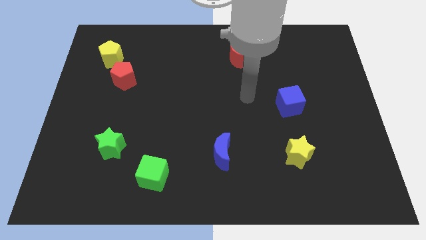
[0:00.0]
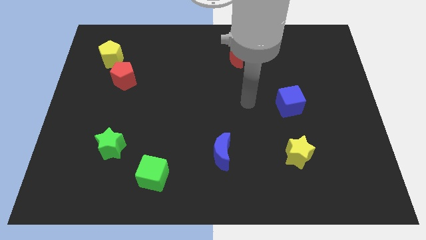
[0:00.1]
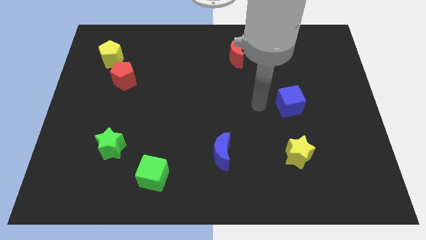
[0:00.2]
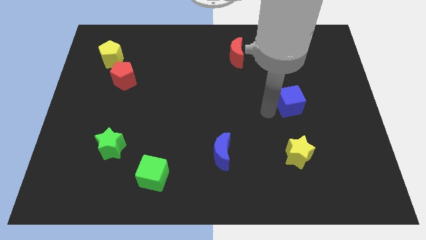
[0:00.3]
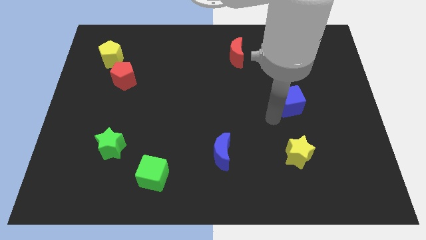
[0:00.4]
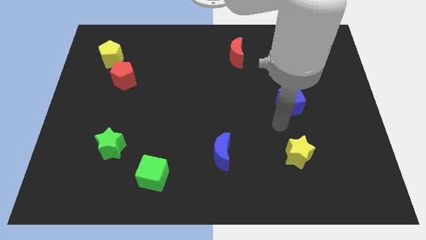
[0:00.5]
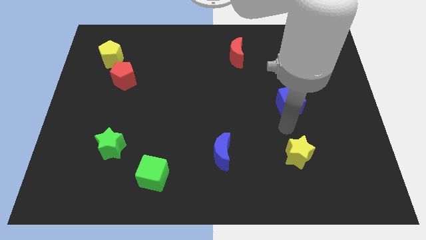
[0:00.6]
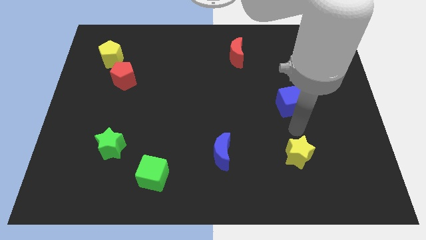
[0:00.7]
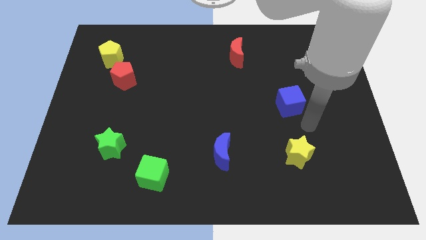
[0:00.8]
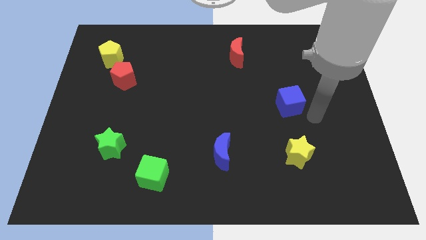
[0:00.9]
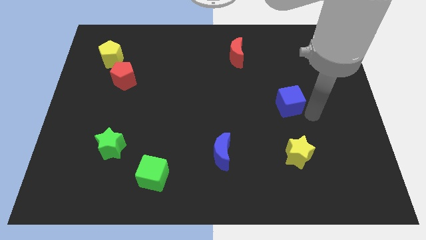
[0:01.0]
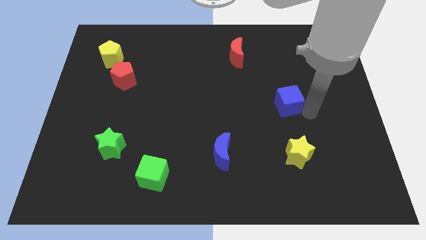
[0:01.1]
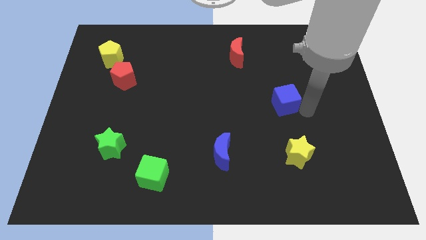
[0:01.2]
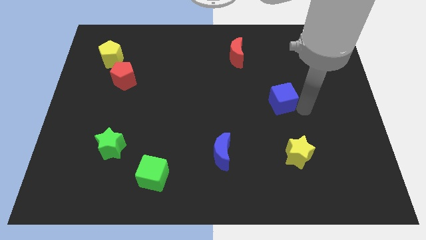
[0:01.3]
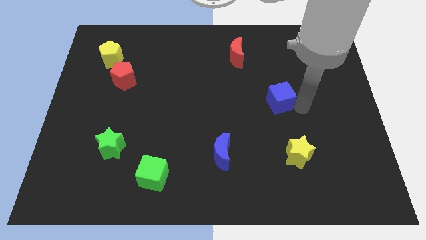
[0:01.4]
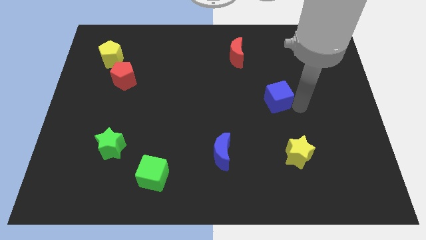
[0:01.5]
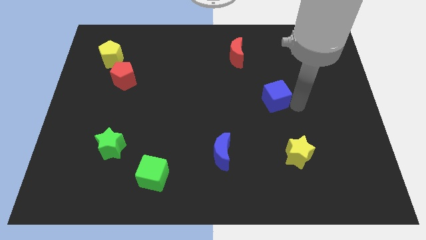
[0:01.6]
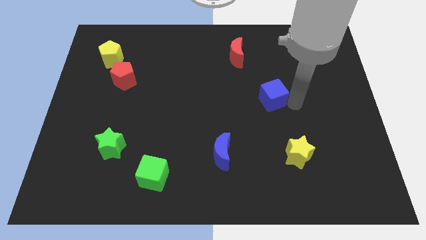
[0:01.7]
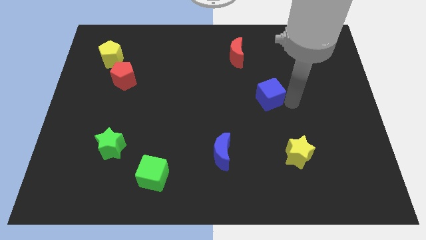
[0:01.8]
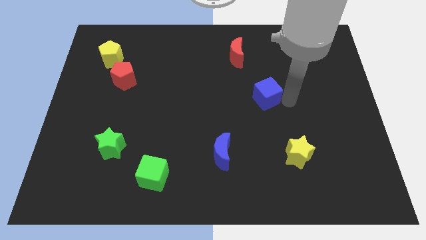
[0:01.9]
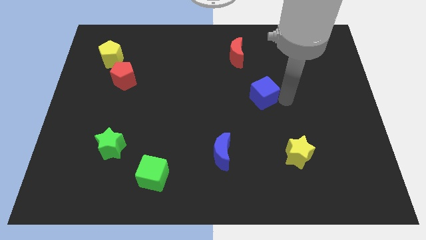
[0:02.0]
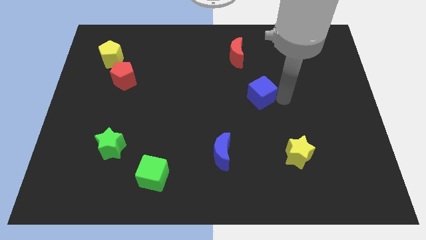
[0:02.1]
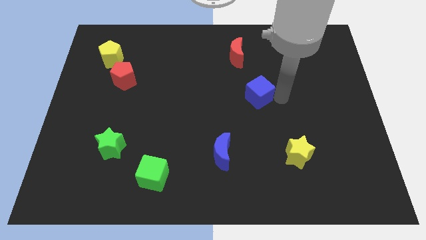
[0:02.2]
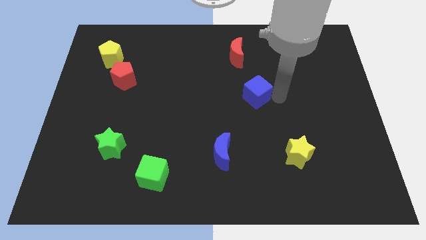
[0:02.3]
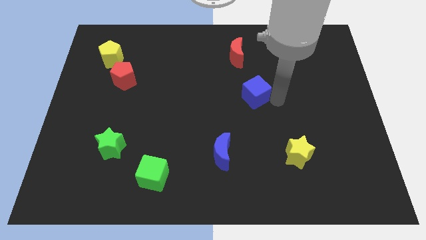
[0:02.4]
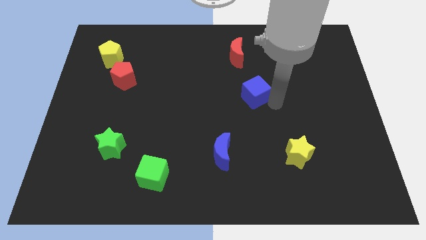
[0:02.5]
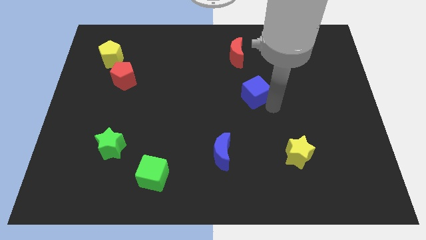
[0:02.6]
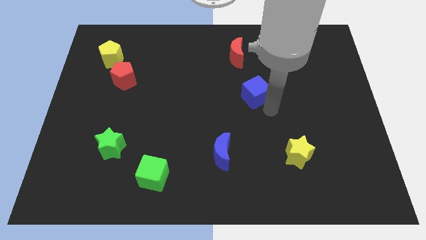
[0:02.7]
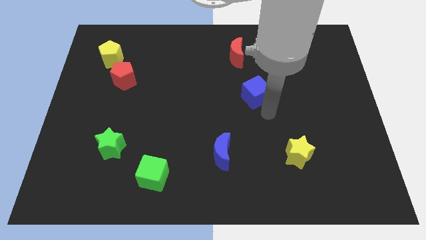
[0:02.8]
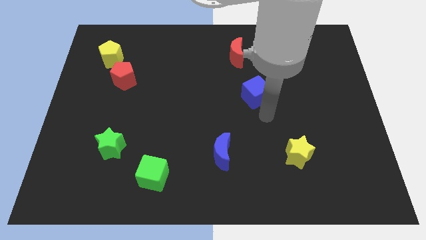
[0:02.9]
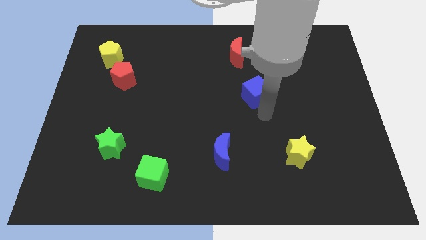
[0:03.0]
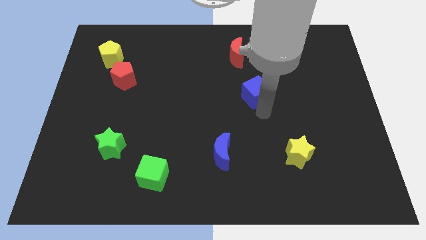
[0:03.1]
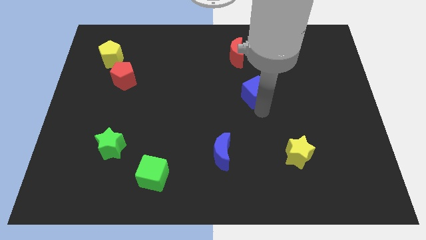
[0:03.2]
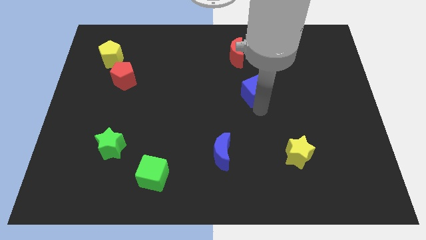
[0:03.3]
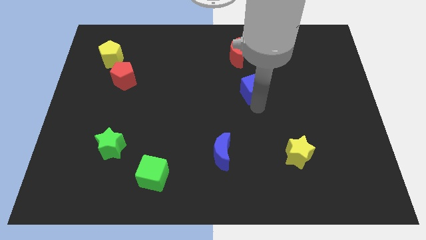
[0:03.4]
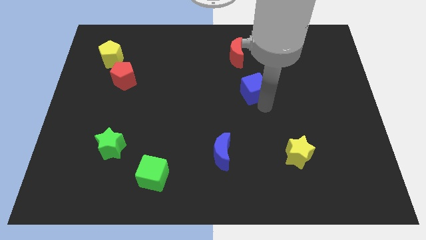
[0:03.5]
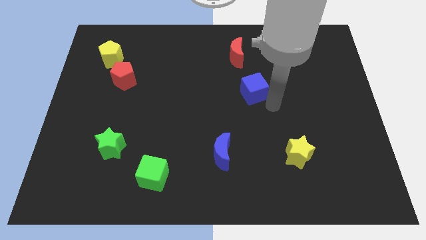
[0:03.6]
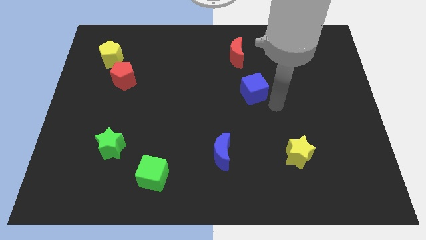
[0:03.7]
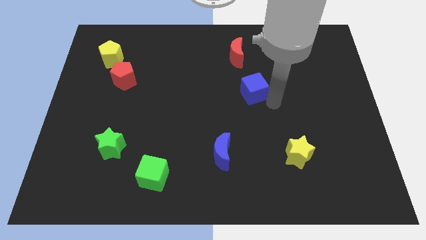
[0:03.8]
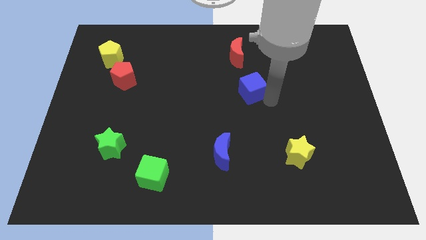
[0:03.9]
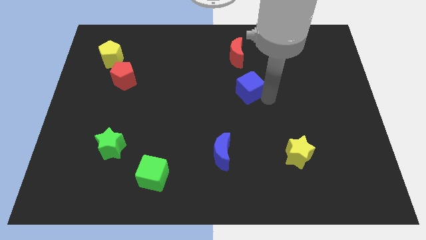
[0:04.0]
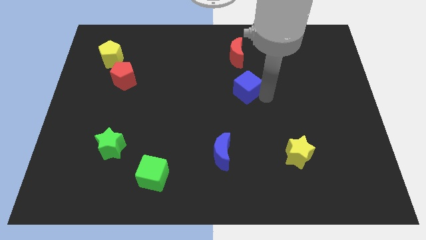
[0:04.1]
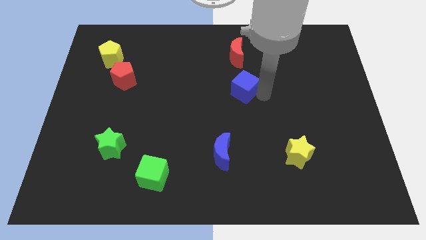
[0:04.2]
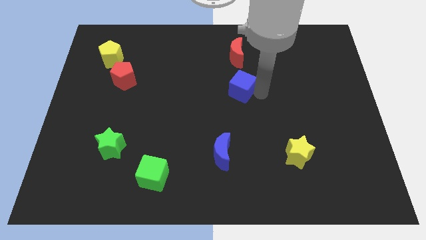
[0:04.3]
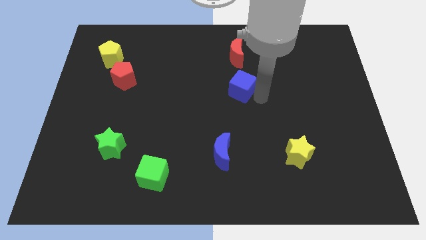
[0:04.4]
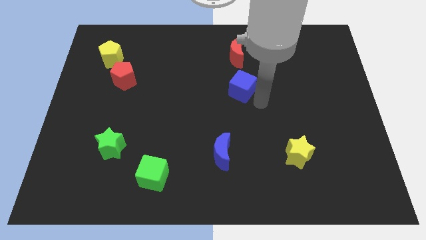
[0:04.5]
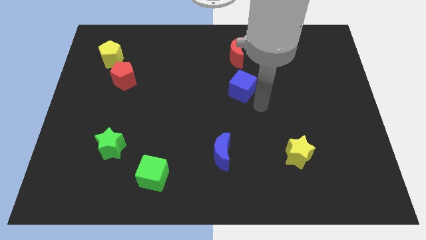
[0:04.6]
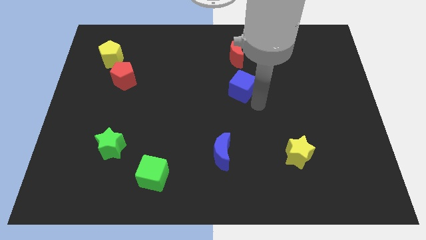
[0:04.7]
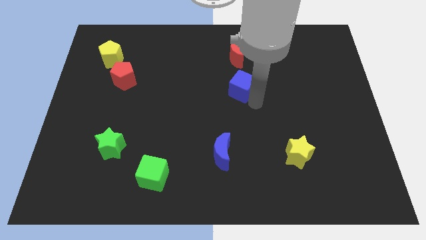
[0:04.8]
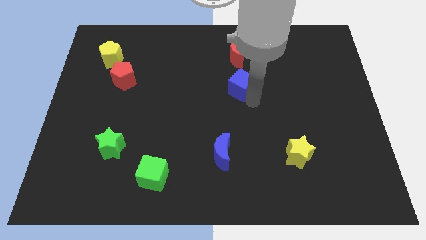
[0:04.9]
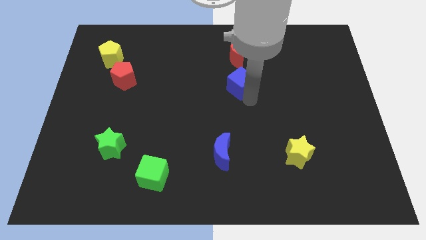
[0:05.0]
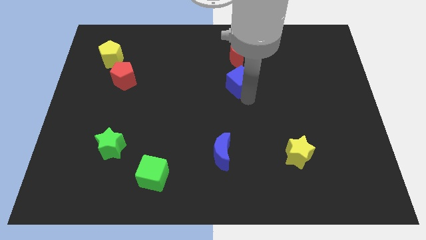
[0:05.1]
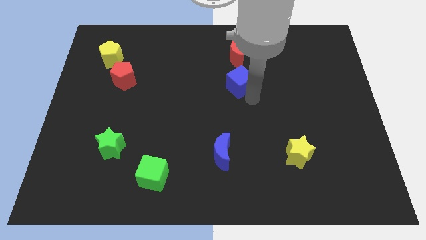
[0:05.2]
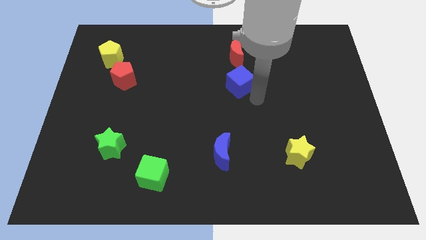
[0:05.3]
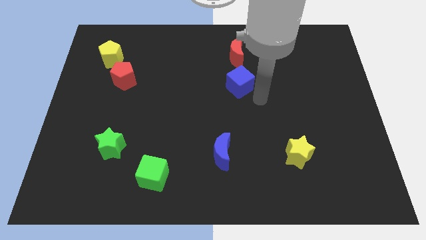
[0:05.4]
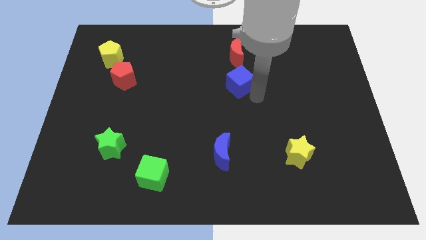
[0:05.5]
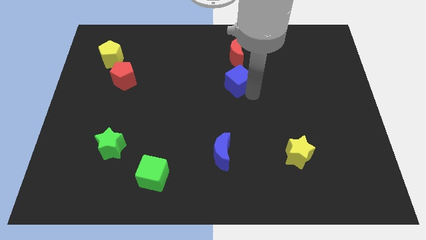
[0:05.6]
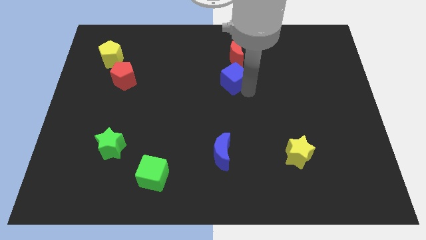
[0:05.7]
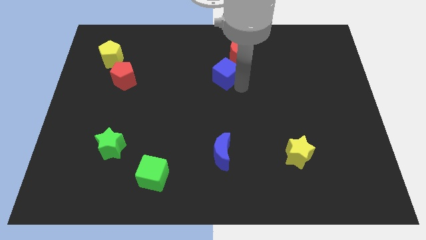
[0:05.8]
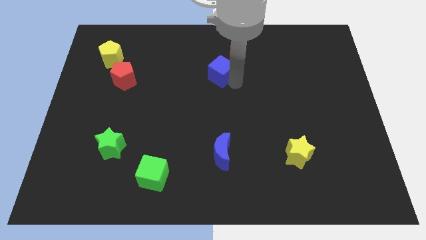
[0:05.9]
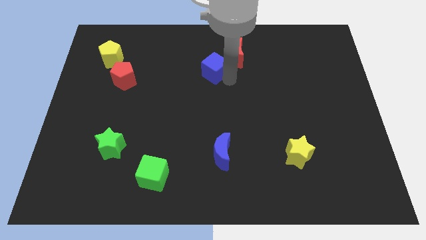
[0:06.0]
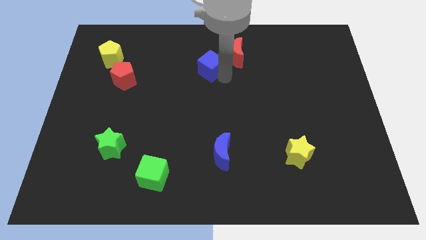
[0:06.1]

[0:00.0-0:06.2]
push the blue cube to the left side of the red moon
